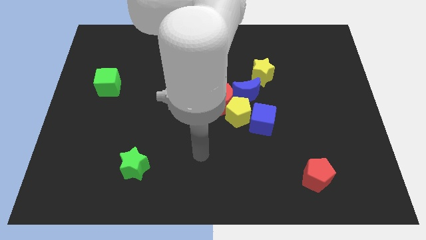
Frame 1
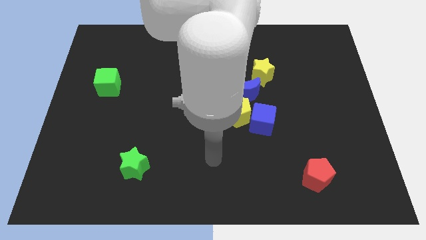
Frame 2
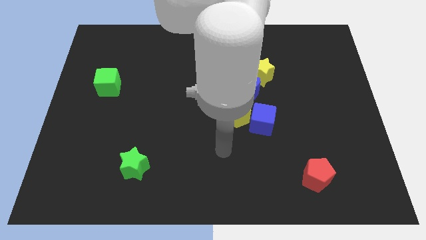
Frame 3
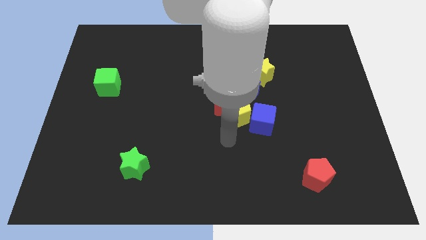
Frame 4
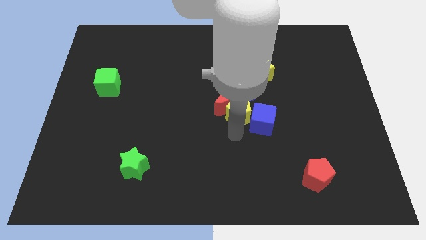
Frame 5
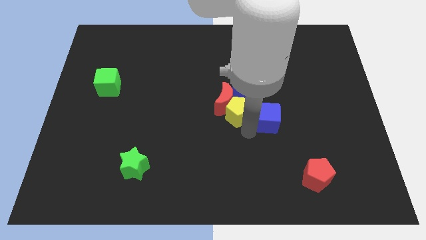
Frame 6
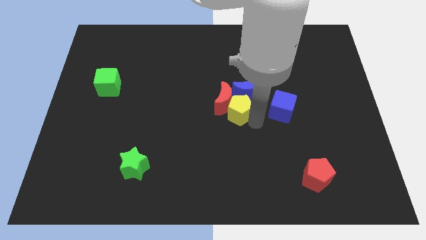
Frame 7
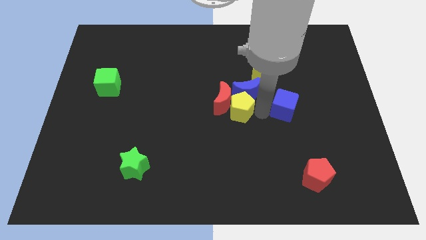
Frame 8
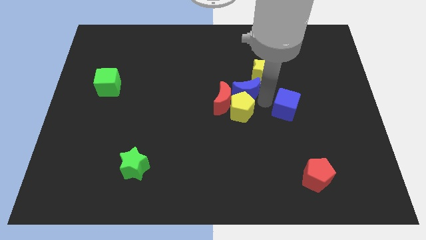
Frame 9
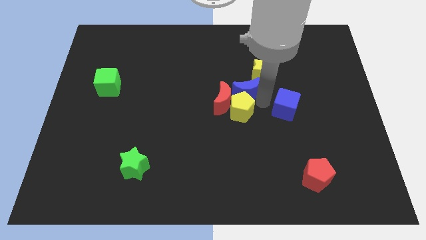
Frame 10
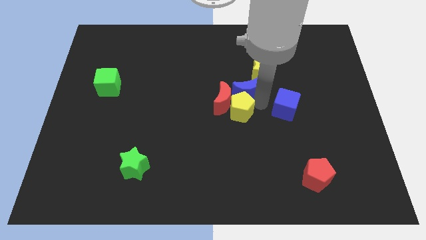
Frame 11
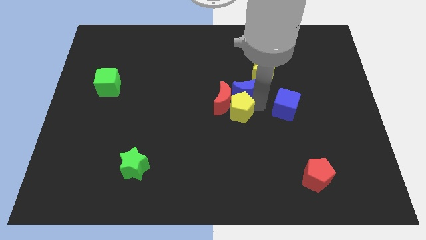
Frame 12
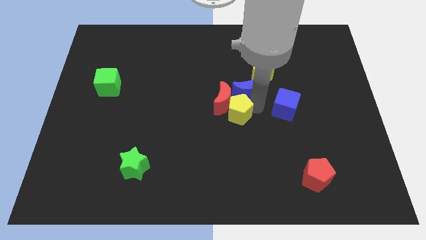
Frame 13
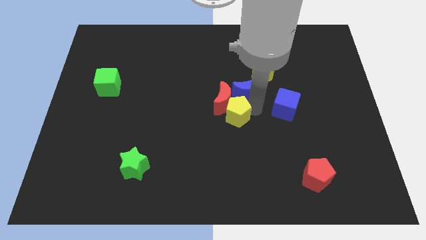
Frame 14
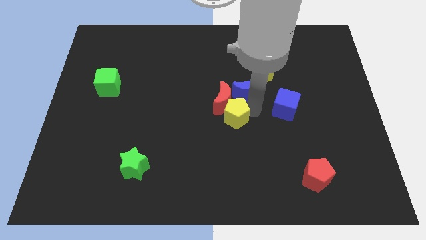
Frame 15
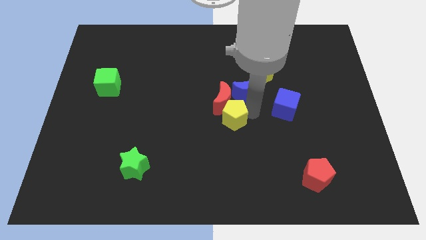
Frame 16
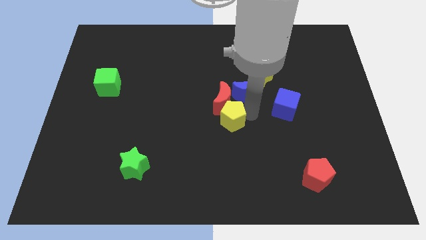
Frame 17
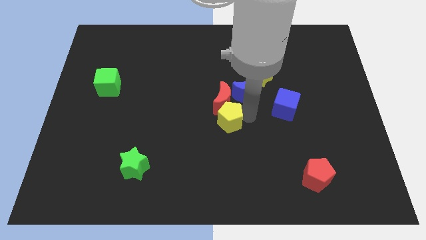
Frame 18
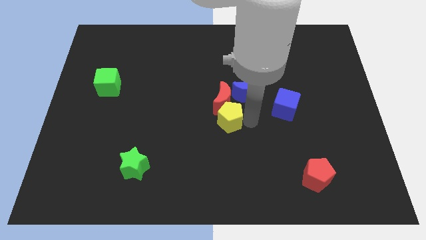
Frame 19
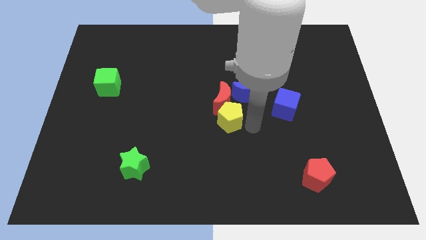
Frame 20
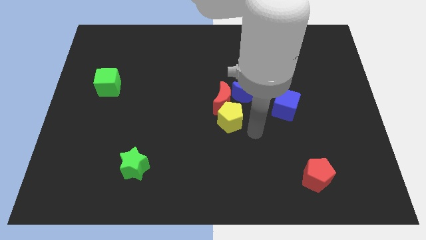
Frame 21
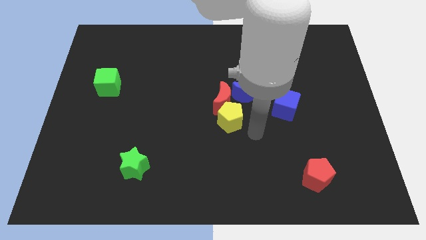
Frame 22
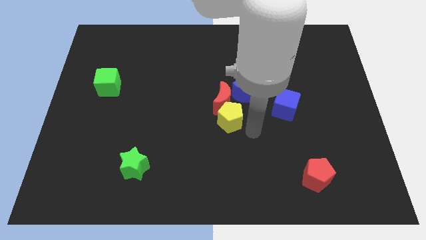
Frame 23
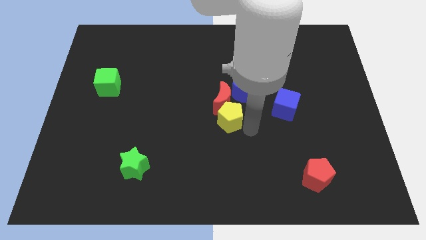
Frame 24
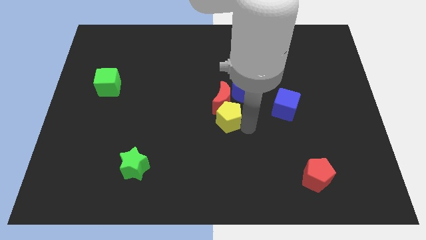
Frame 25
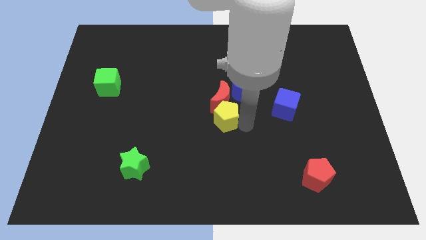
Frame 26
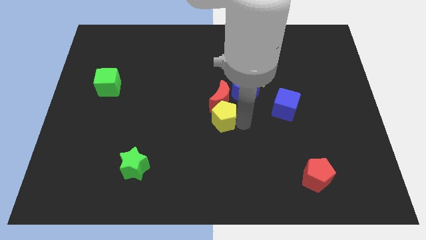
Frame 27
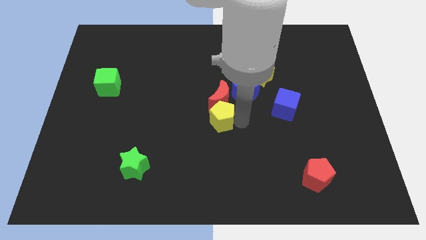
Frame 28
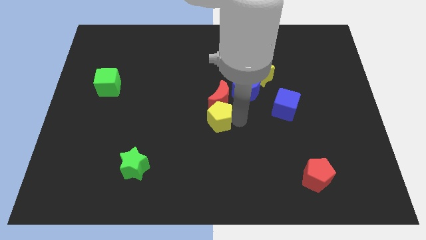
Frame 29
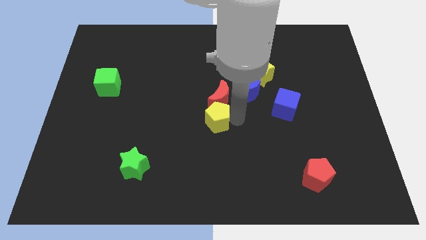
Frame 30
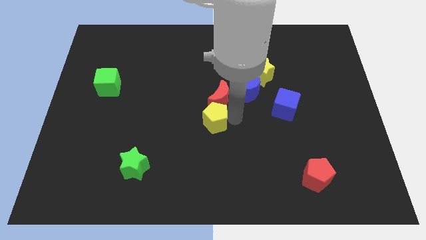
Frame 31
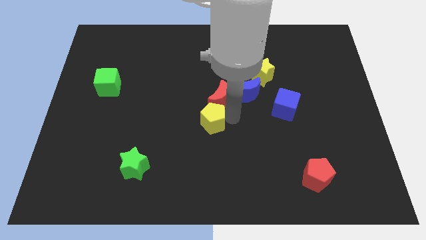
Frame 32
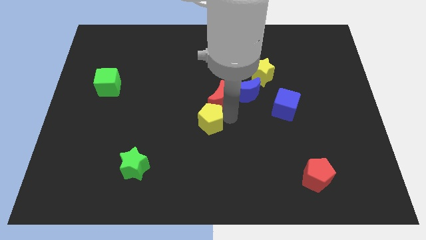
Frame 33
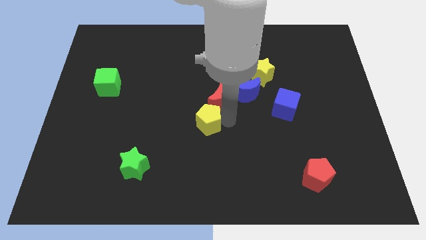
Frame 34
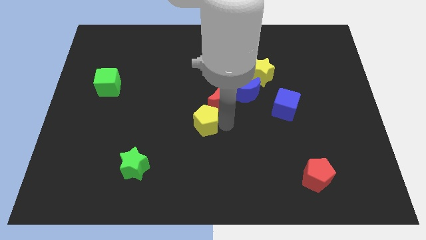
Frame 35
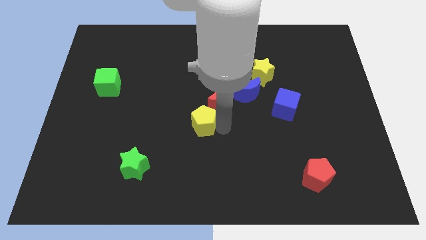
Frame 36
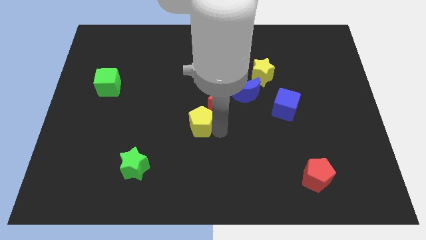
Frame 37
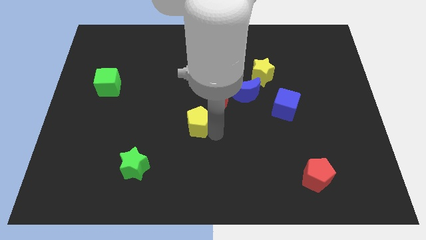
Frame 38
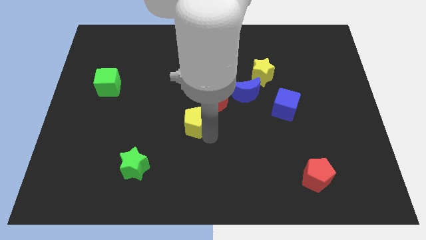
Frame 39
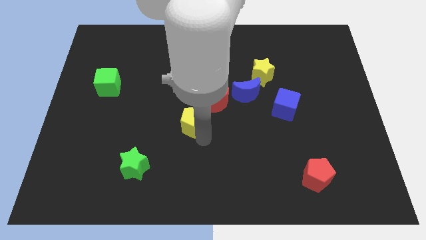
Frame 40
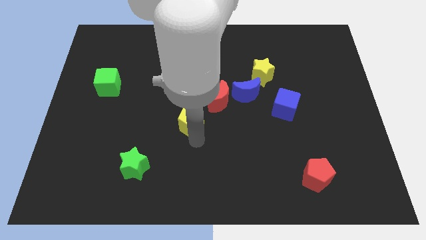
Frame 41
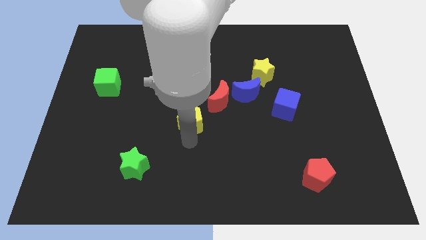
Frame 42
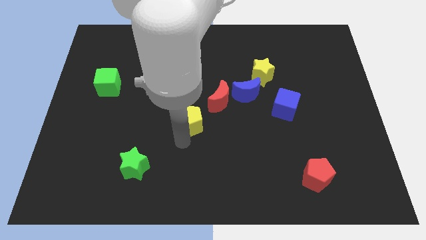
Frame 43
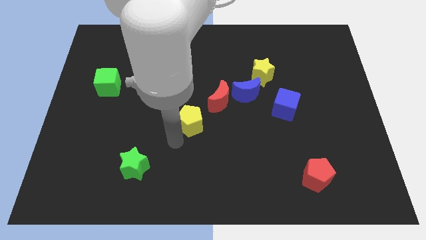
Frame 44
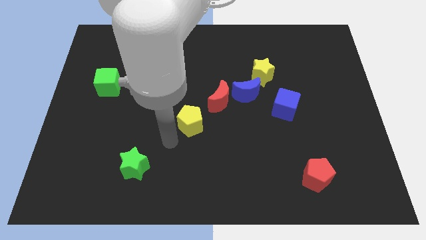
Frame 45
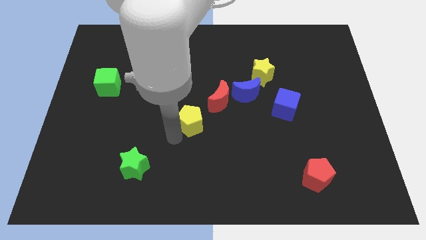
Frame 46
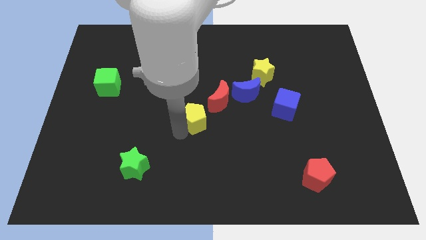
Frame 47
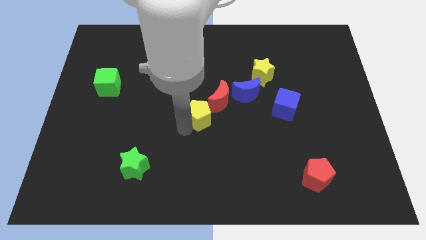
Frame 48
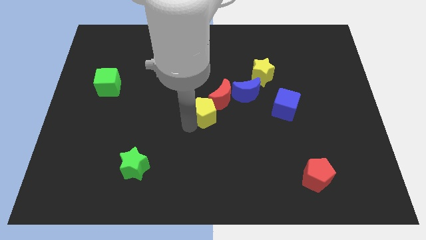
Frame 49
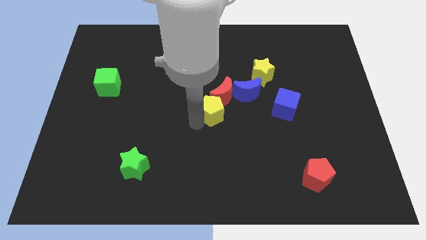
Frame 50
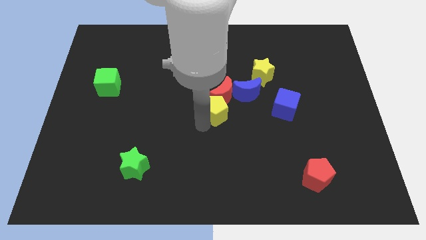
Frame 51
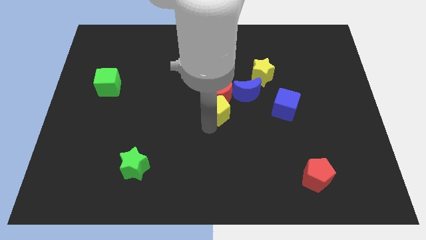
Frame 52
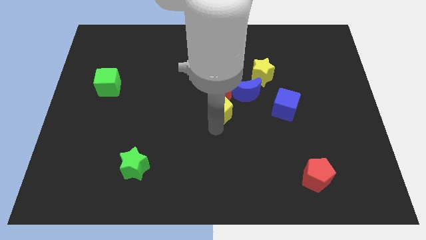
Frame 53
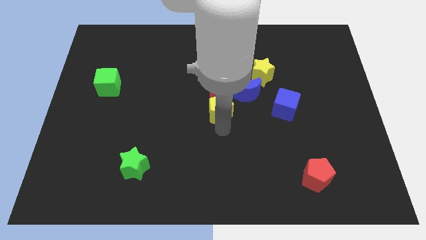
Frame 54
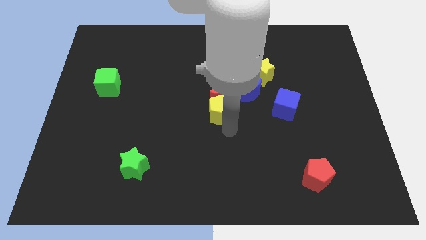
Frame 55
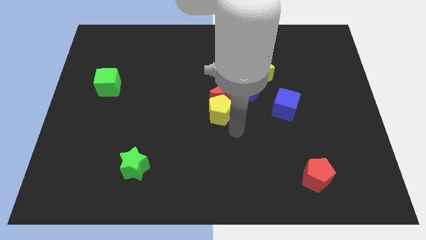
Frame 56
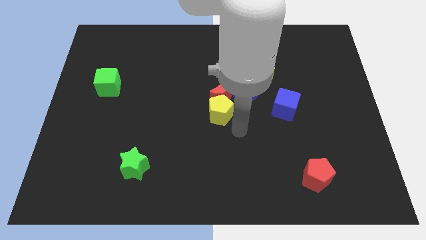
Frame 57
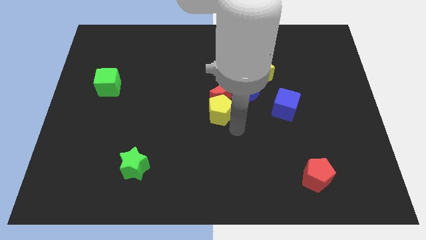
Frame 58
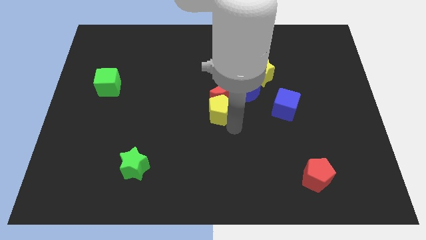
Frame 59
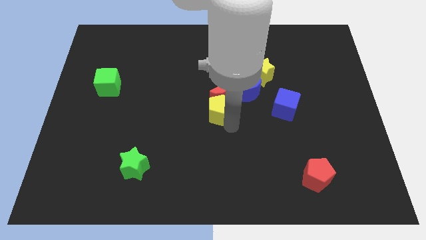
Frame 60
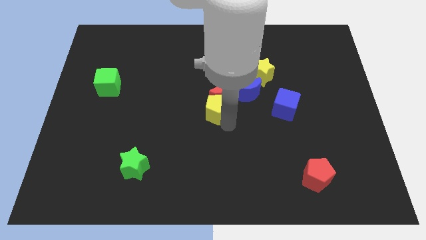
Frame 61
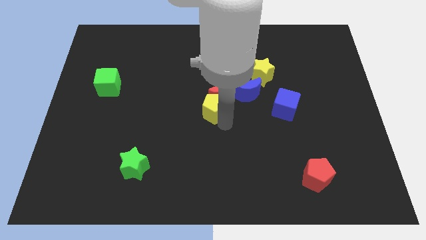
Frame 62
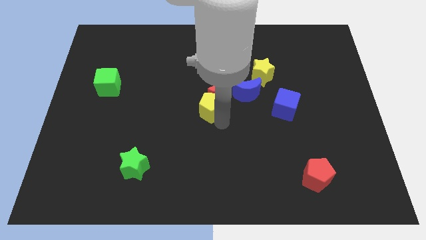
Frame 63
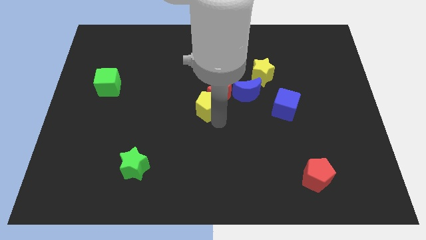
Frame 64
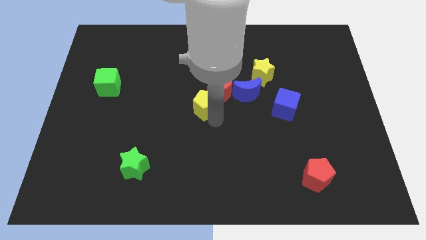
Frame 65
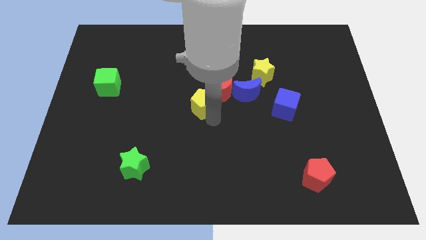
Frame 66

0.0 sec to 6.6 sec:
slightly push the yellow pentagon upwards and left diagonally

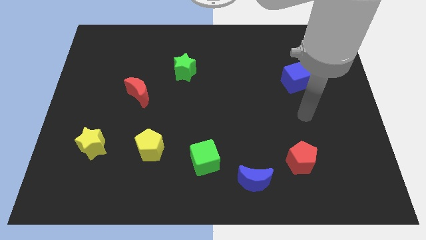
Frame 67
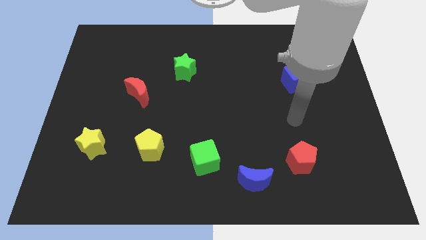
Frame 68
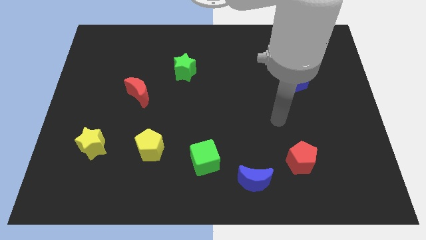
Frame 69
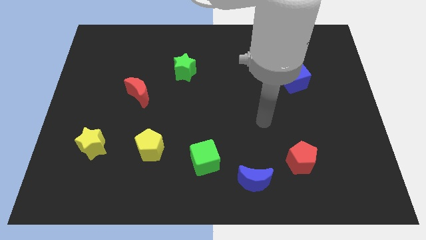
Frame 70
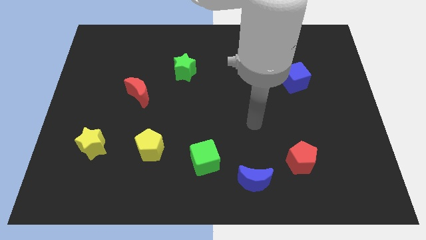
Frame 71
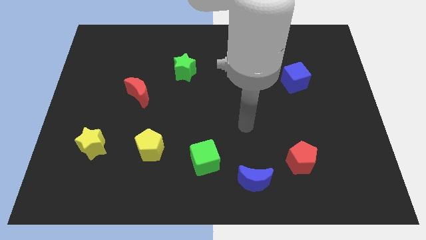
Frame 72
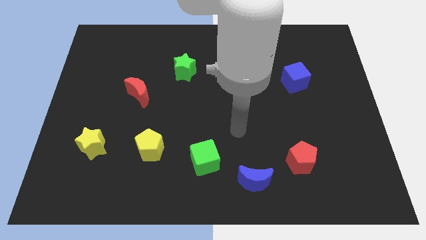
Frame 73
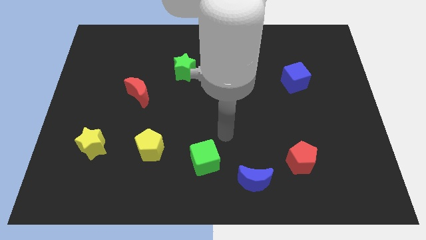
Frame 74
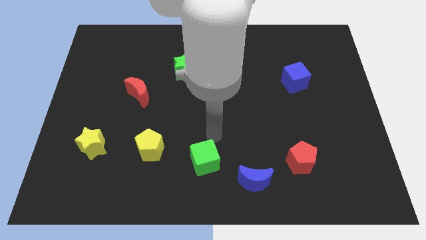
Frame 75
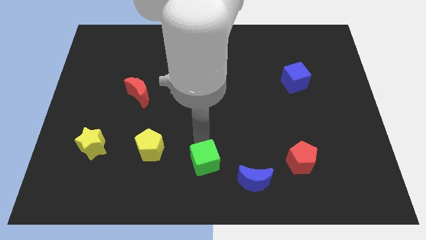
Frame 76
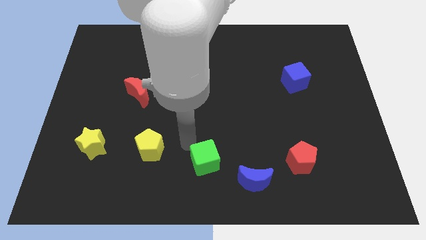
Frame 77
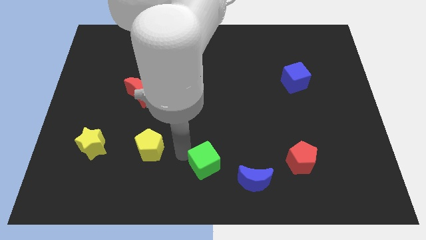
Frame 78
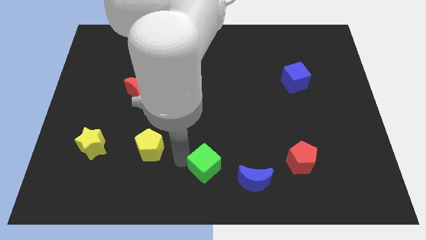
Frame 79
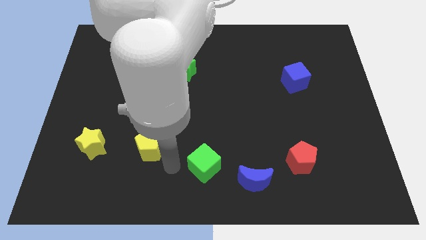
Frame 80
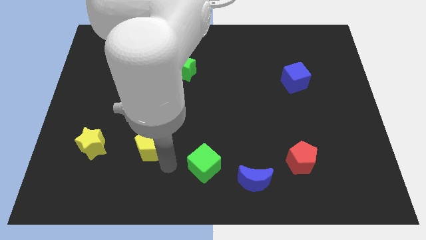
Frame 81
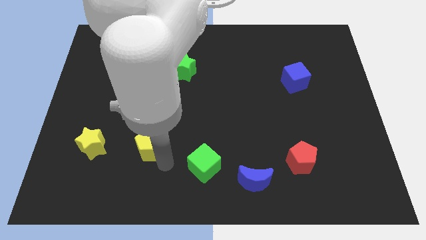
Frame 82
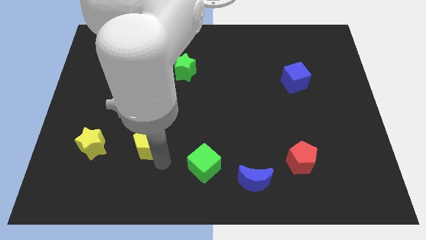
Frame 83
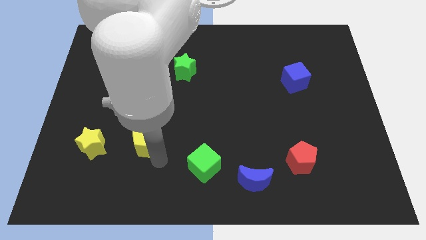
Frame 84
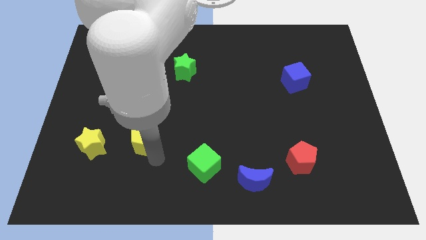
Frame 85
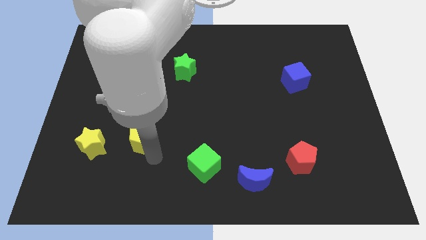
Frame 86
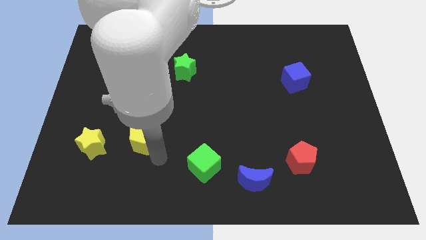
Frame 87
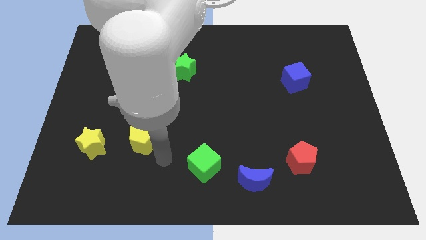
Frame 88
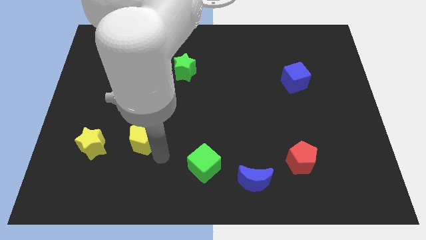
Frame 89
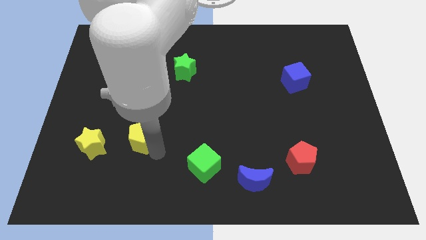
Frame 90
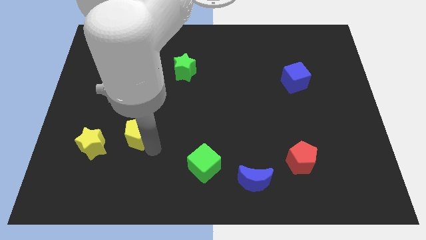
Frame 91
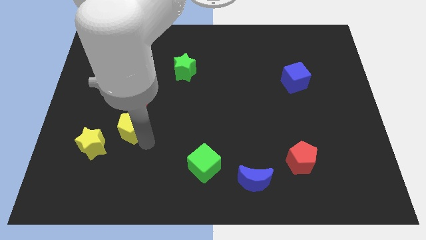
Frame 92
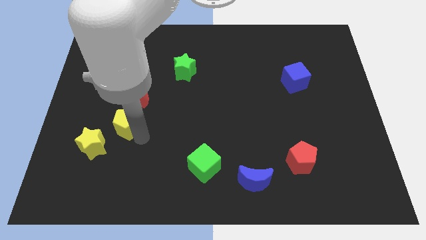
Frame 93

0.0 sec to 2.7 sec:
move the yellow pentagon a little up and to the left
